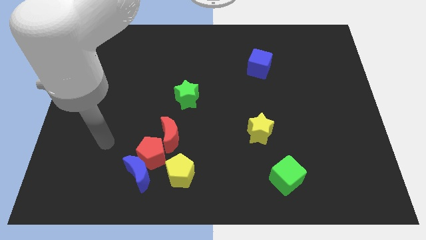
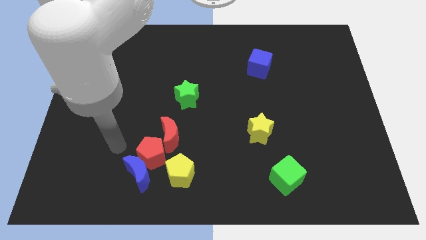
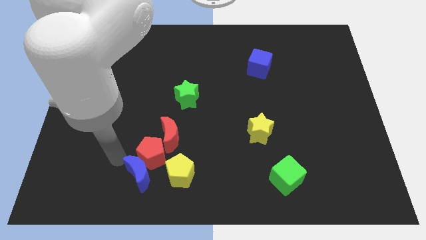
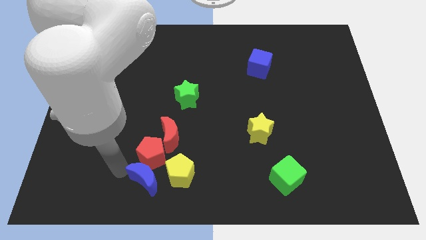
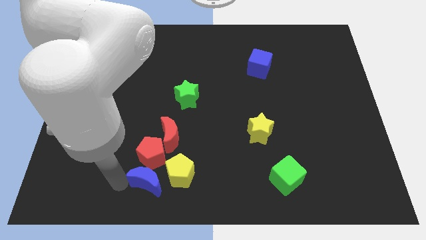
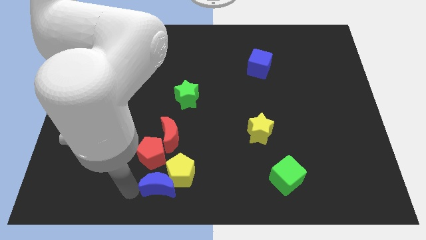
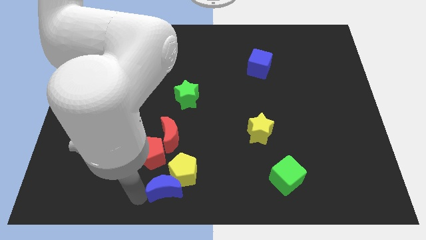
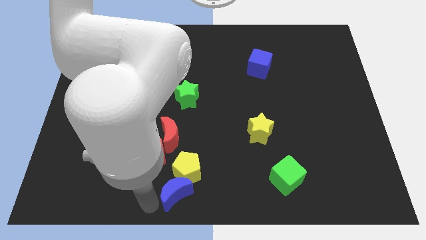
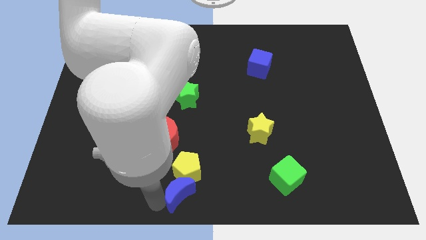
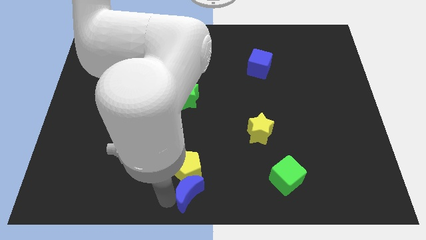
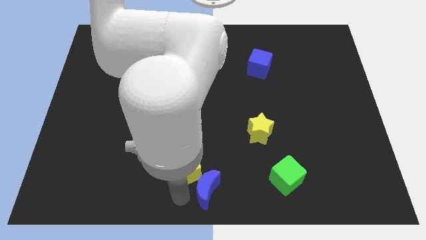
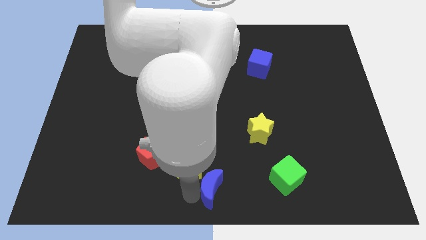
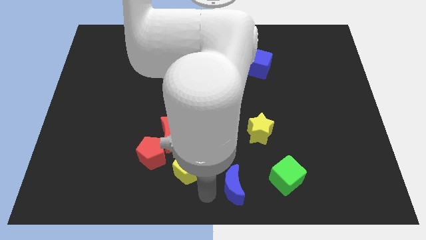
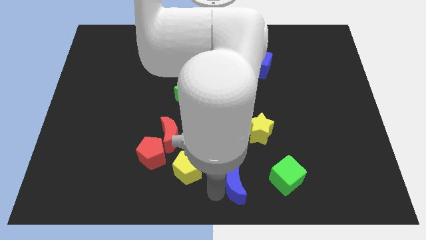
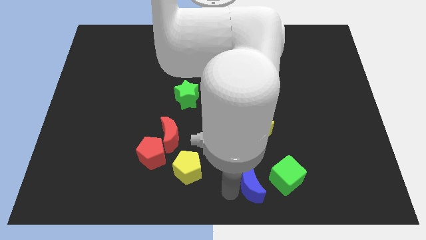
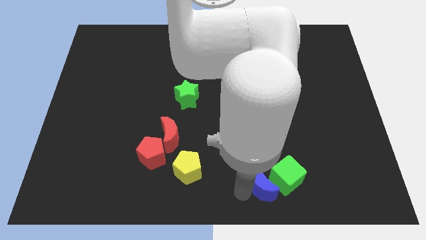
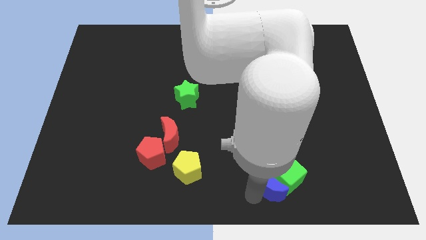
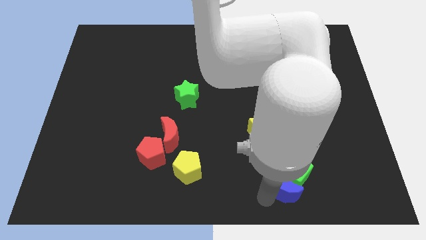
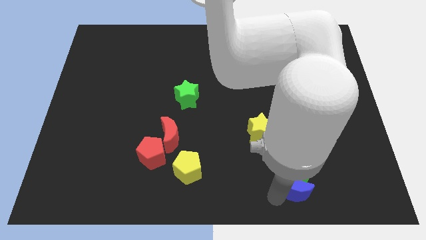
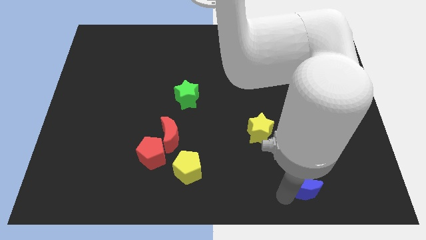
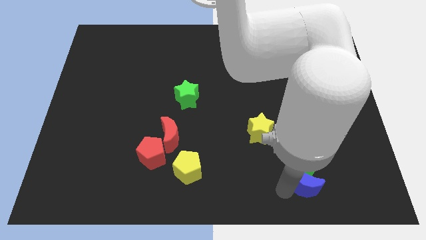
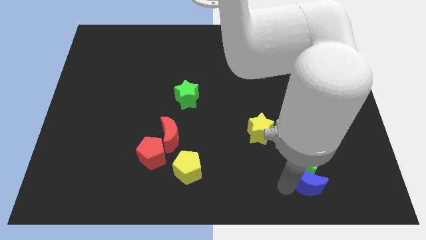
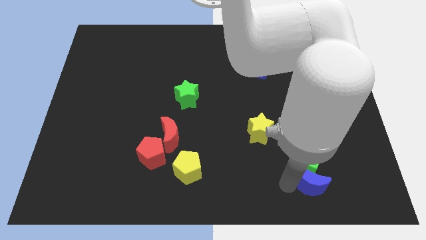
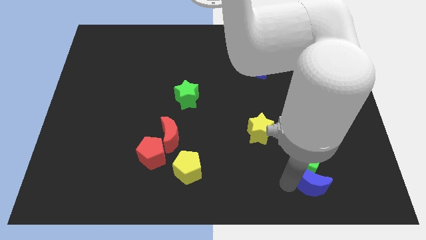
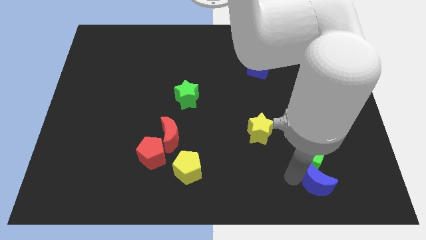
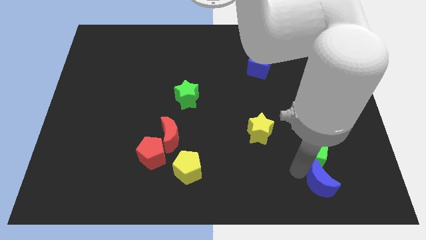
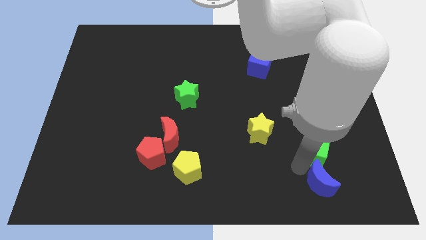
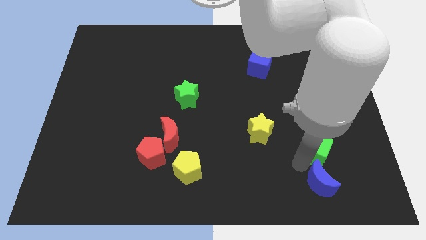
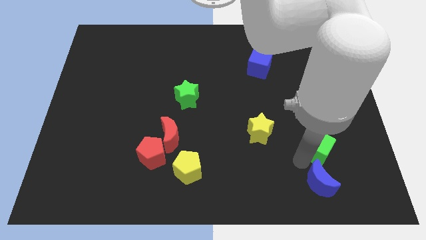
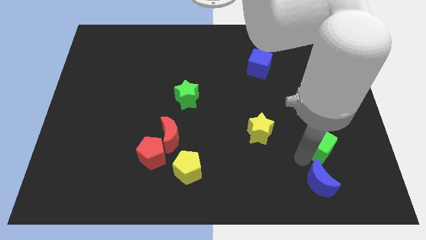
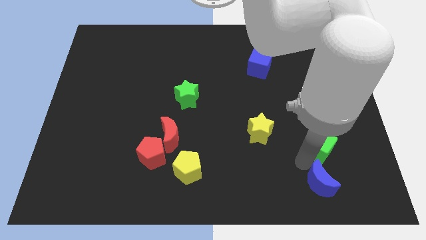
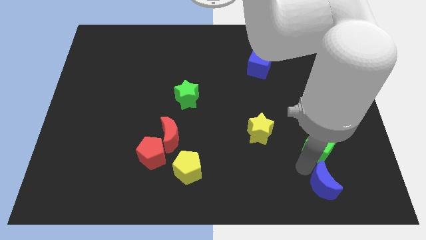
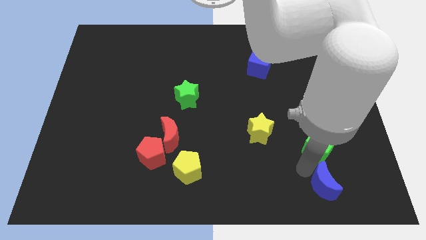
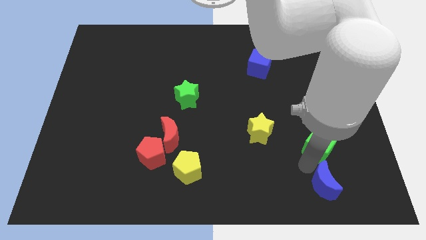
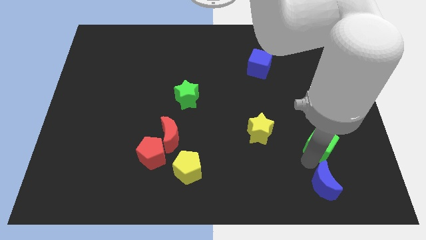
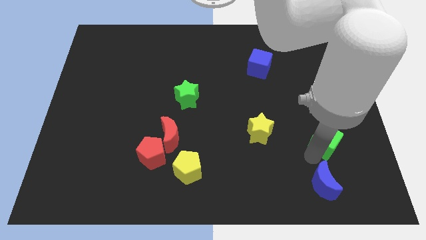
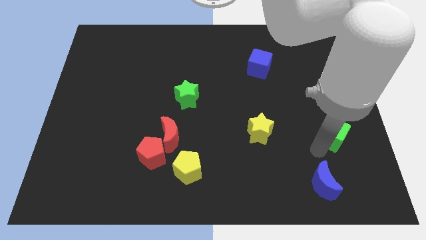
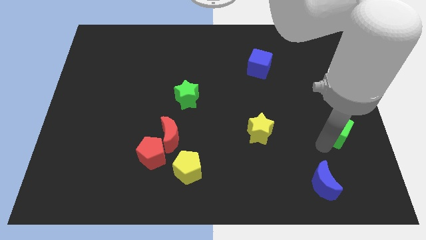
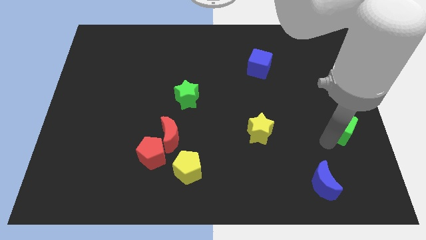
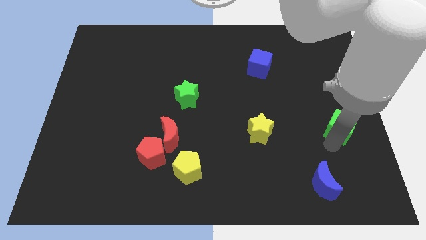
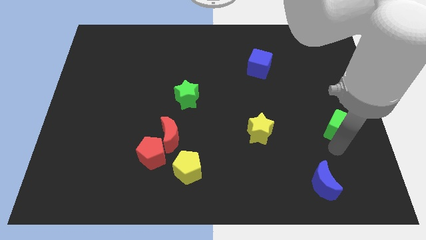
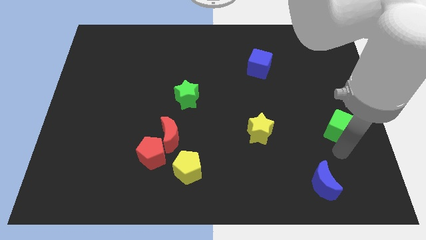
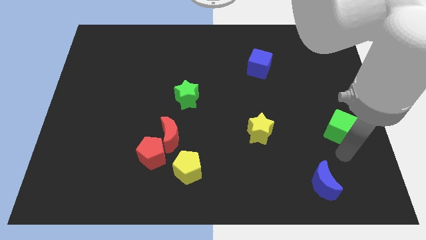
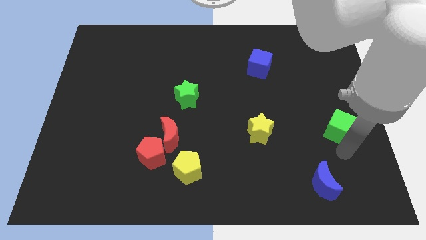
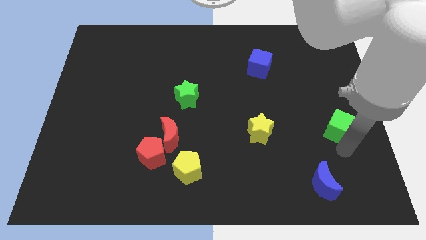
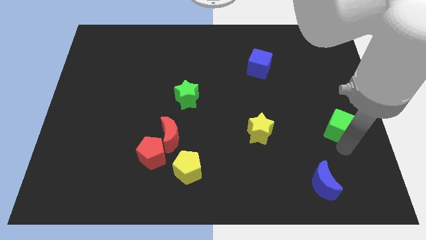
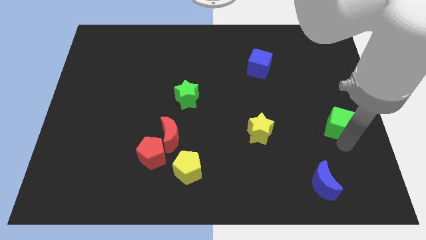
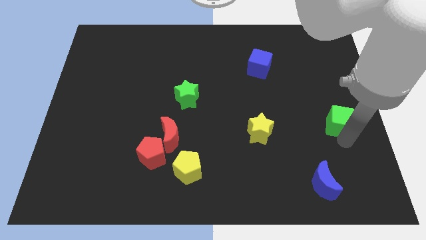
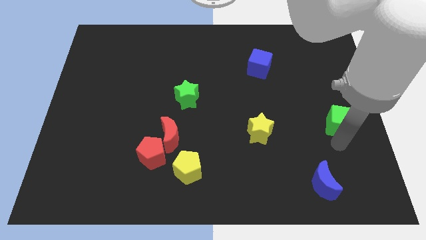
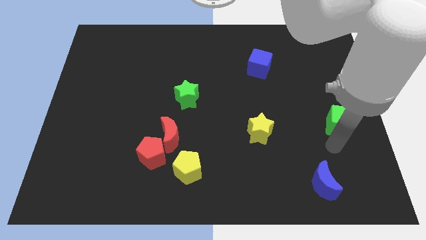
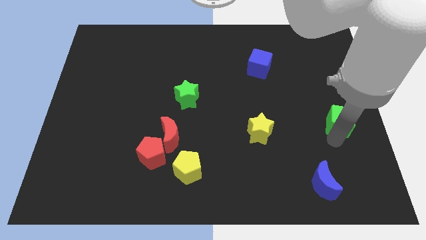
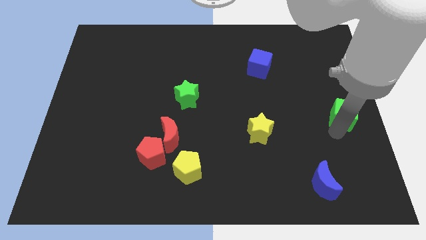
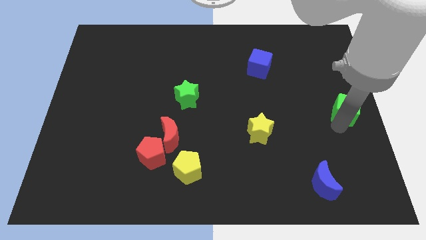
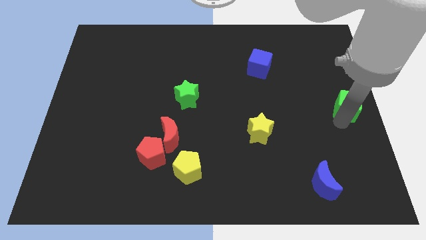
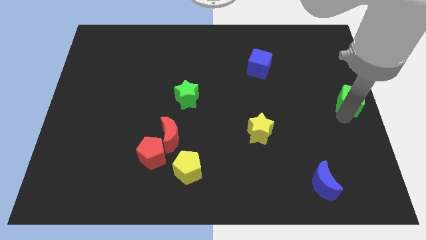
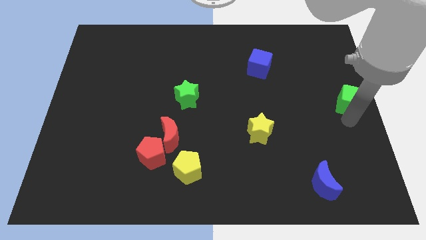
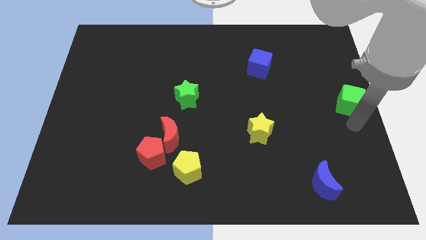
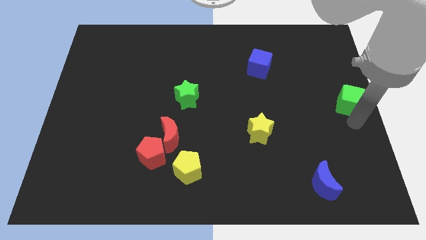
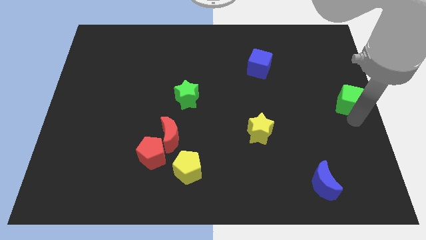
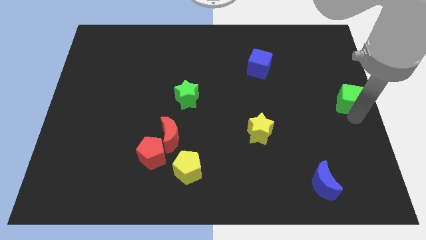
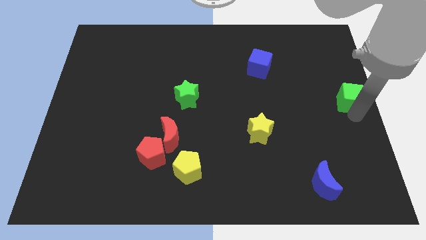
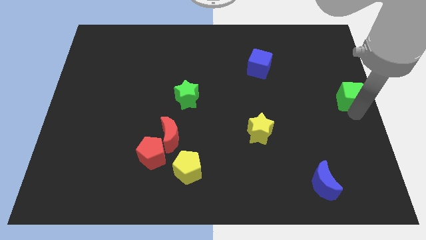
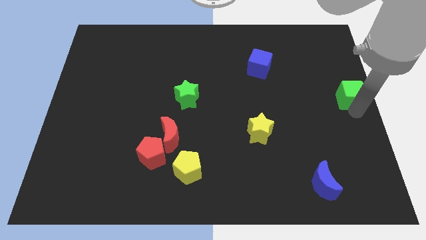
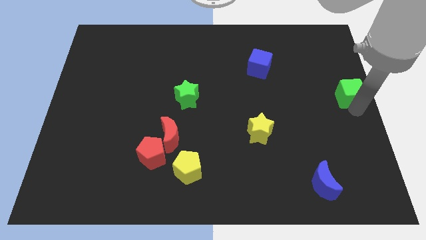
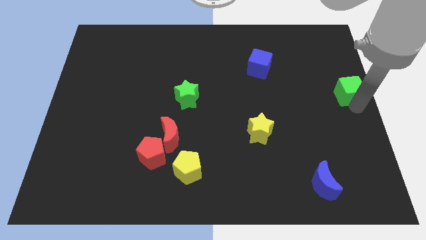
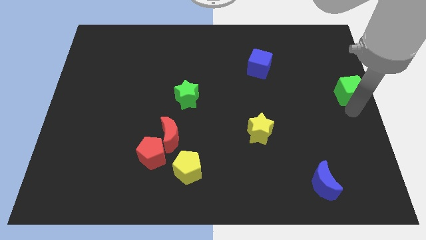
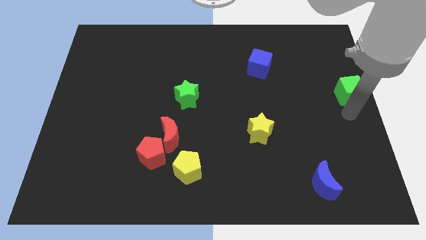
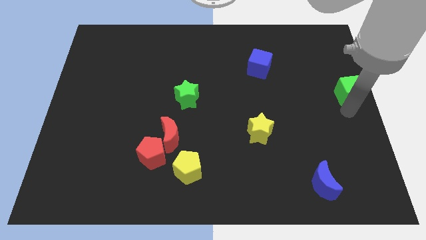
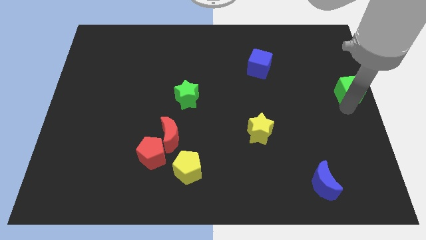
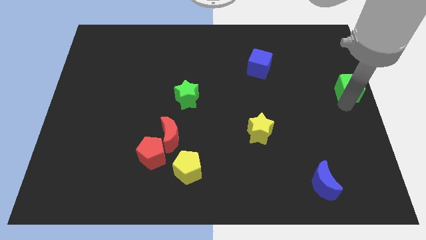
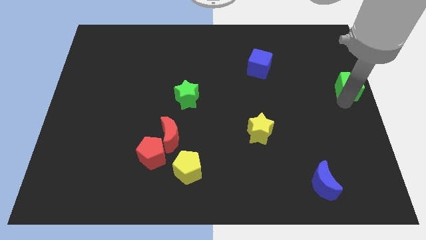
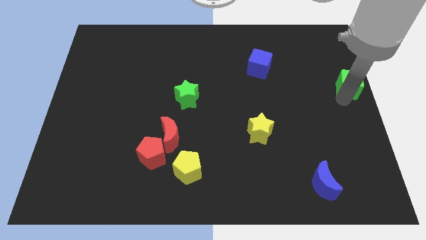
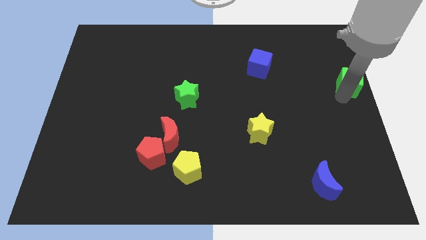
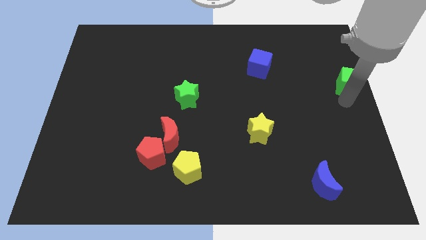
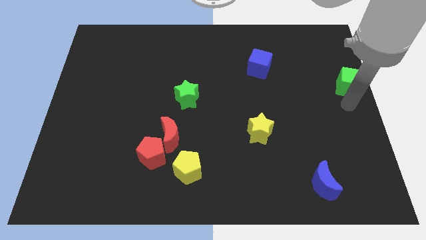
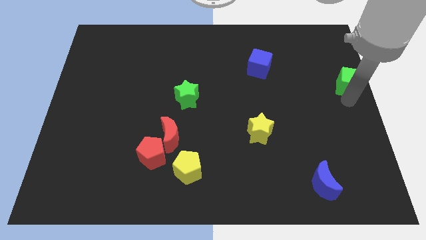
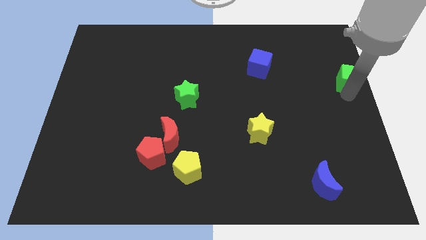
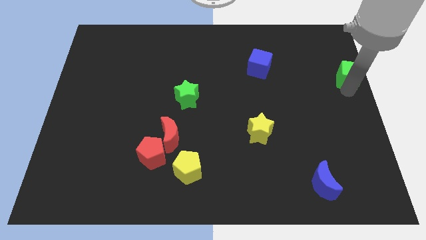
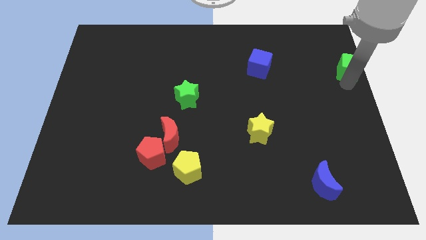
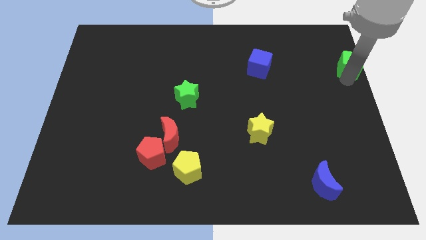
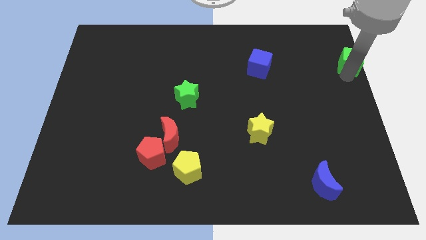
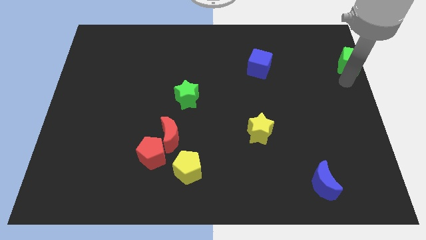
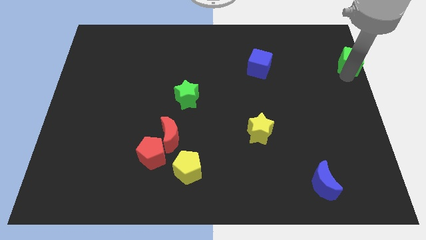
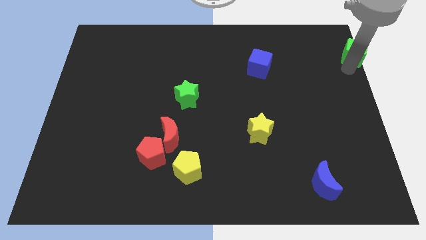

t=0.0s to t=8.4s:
push the green cube to the top right corner
